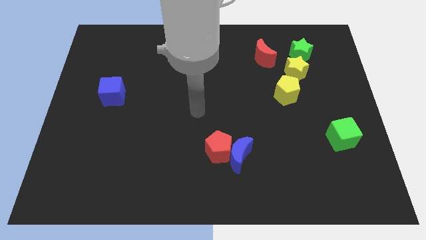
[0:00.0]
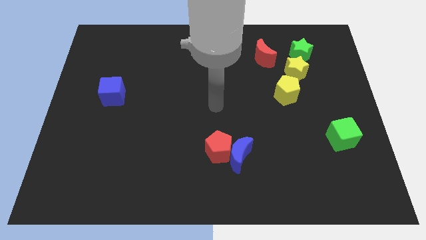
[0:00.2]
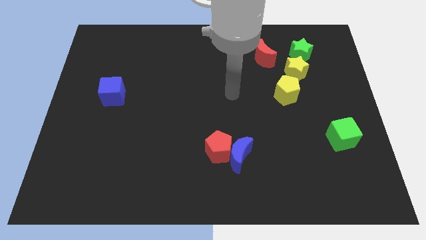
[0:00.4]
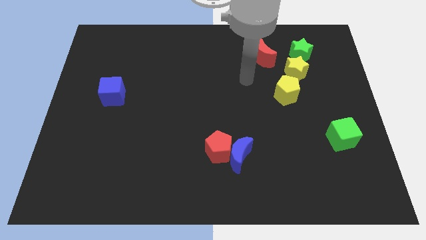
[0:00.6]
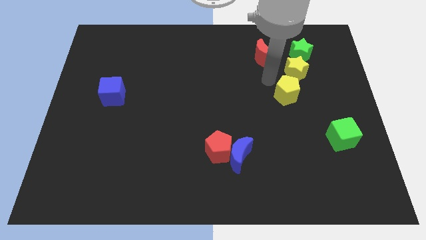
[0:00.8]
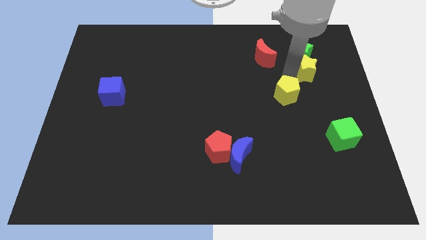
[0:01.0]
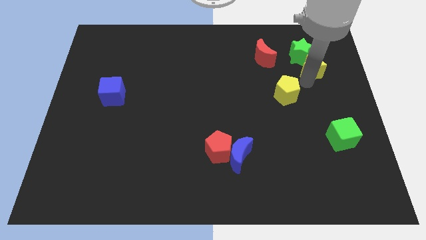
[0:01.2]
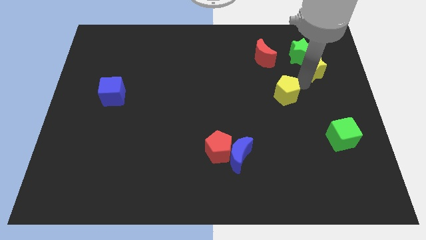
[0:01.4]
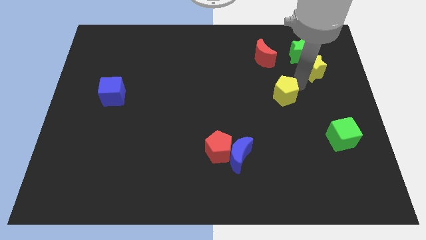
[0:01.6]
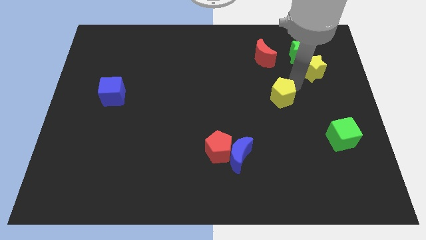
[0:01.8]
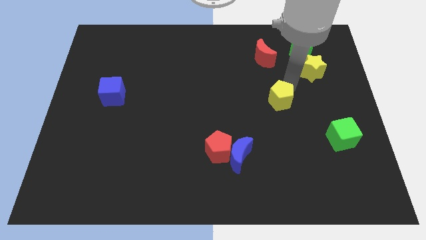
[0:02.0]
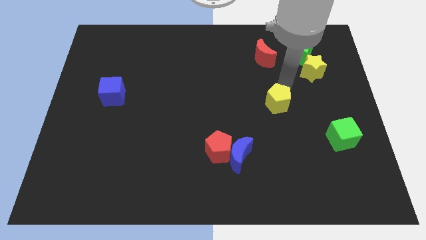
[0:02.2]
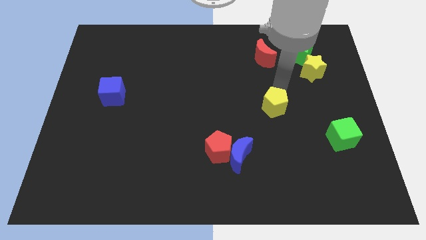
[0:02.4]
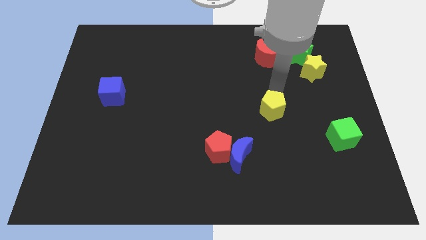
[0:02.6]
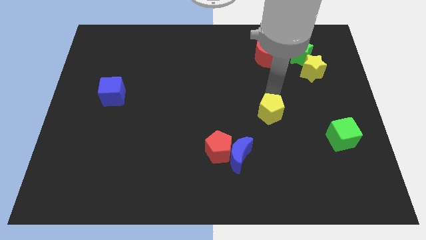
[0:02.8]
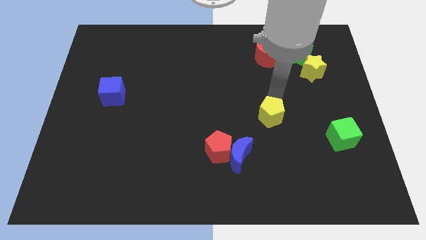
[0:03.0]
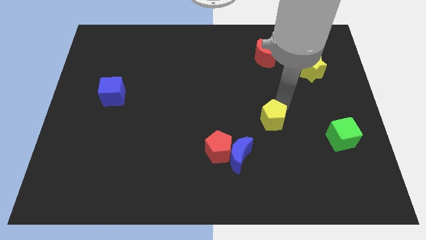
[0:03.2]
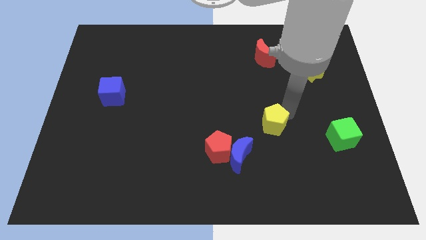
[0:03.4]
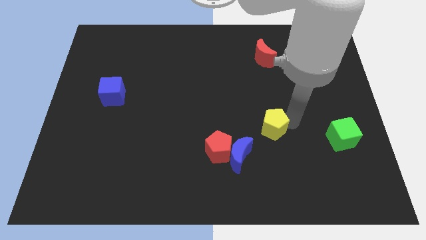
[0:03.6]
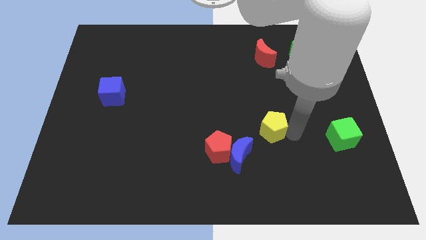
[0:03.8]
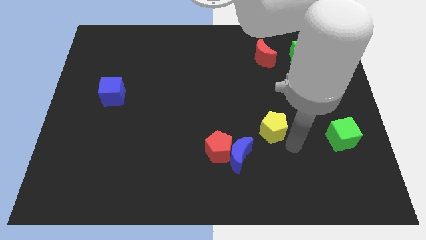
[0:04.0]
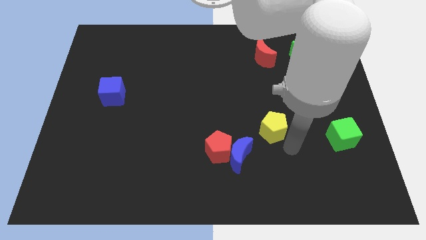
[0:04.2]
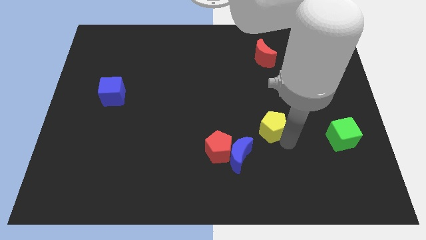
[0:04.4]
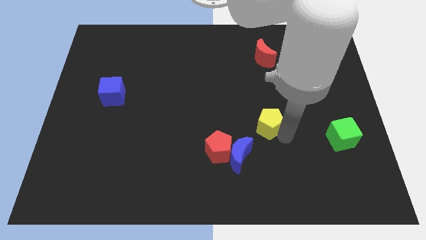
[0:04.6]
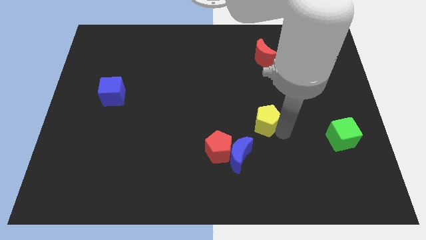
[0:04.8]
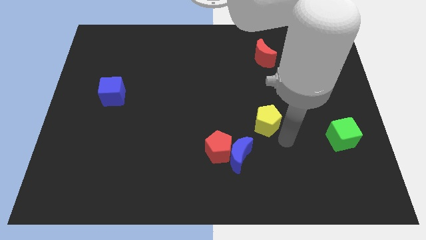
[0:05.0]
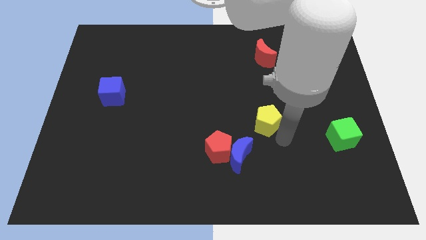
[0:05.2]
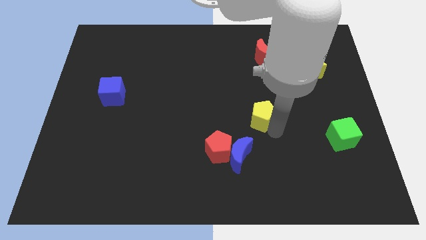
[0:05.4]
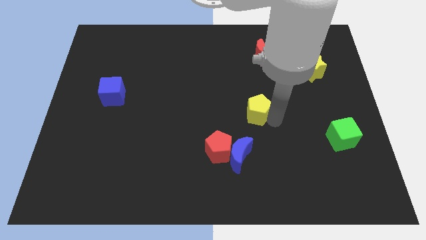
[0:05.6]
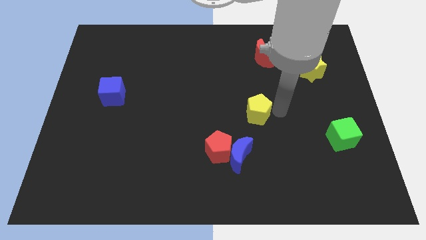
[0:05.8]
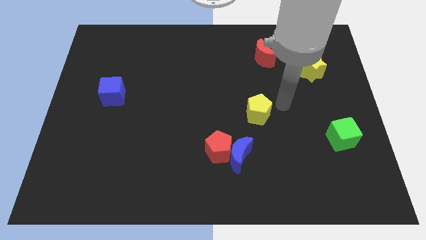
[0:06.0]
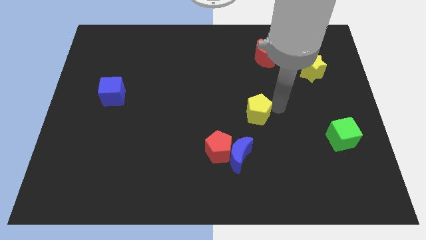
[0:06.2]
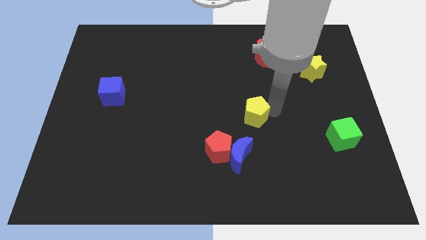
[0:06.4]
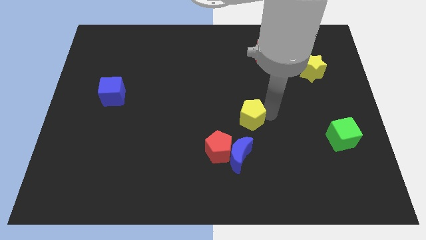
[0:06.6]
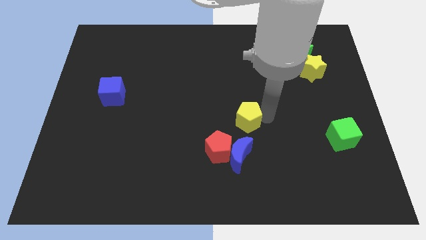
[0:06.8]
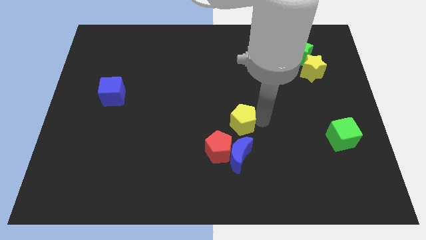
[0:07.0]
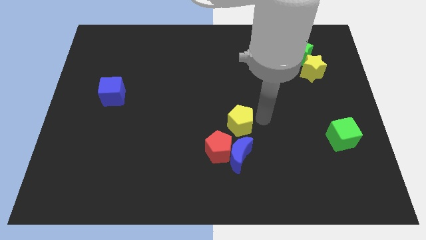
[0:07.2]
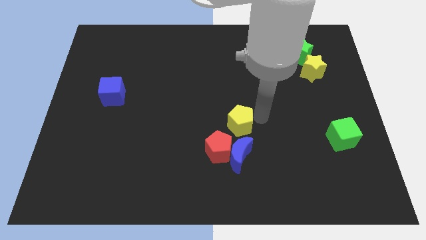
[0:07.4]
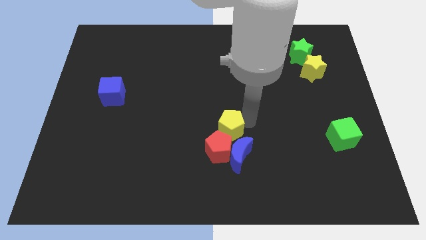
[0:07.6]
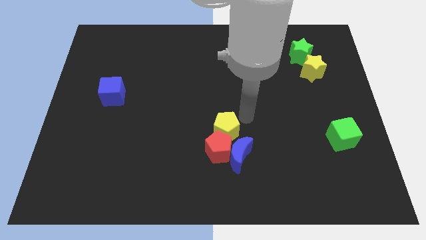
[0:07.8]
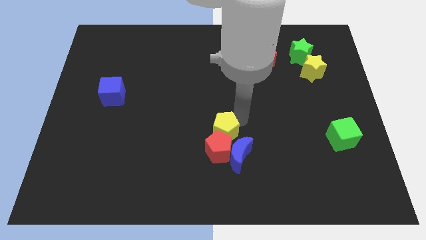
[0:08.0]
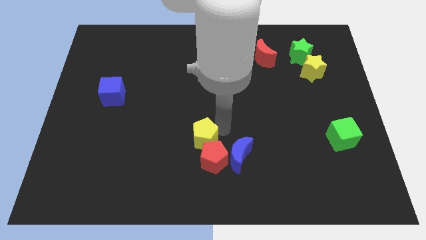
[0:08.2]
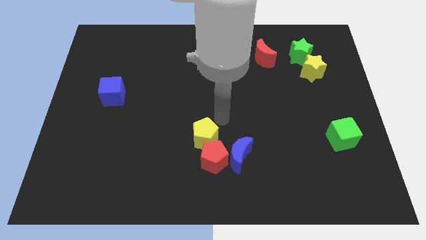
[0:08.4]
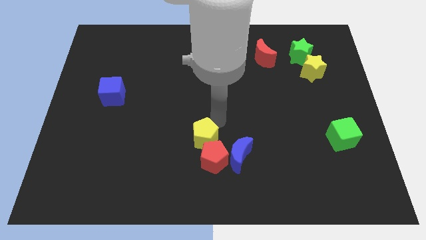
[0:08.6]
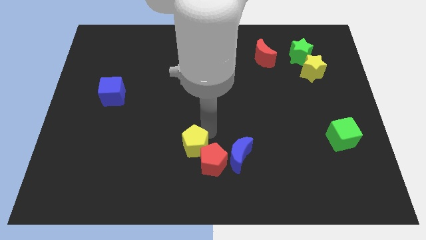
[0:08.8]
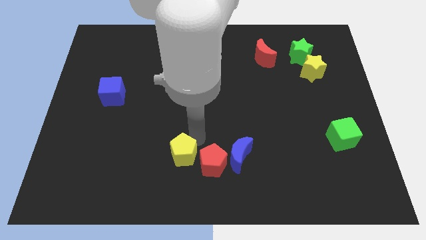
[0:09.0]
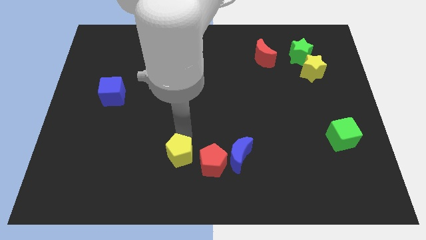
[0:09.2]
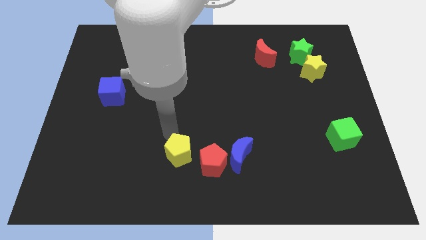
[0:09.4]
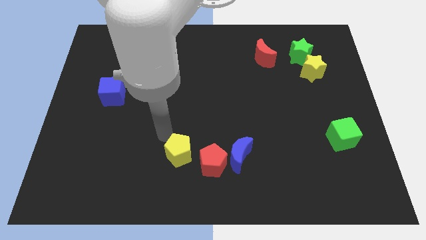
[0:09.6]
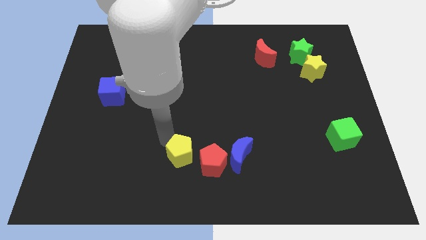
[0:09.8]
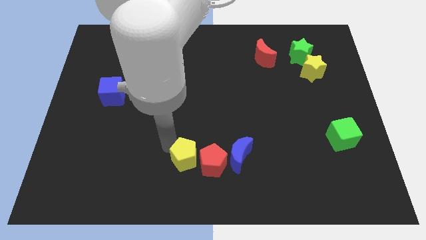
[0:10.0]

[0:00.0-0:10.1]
slide the yellow pentagon to the bottom

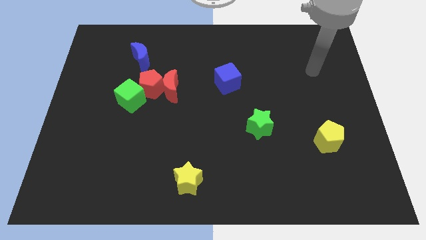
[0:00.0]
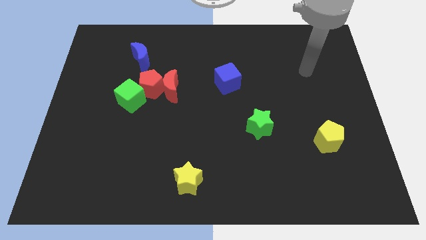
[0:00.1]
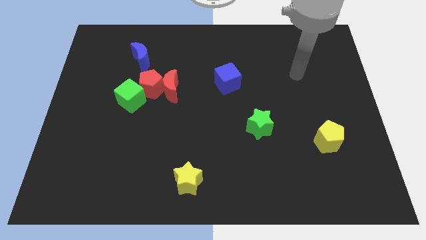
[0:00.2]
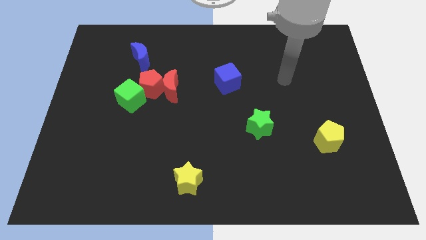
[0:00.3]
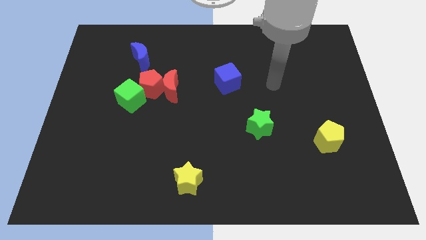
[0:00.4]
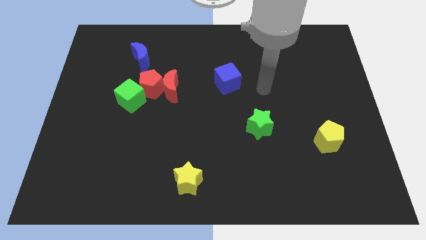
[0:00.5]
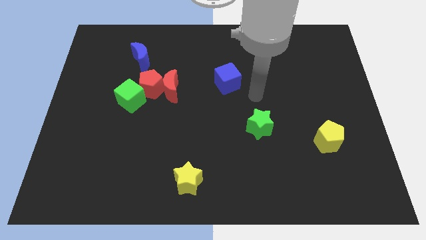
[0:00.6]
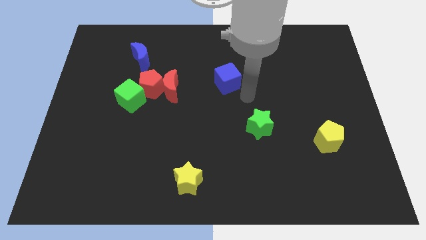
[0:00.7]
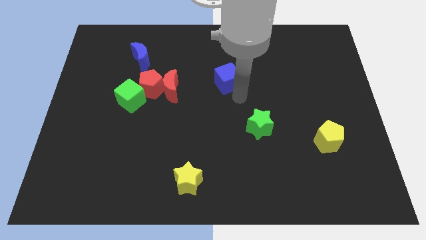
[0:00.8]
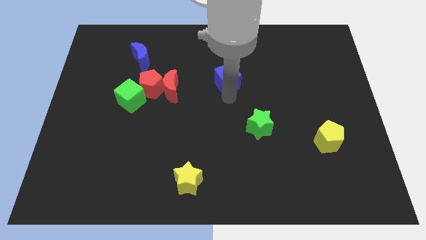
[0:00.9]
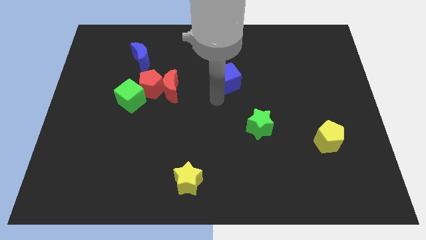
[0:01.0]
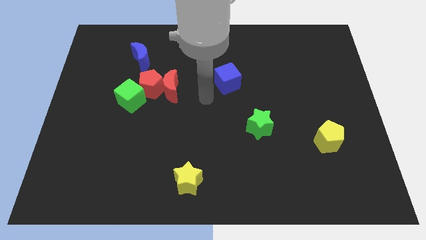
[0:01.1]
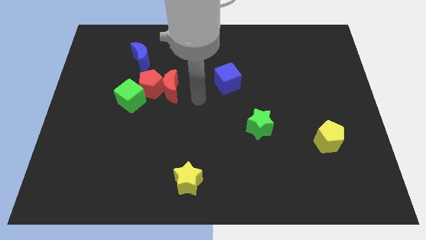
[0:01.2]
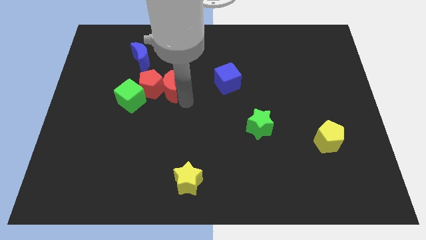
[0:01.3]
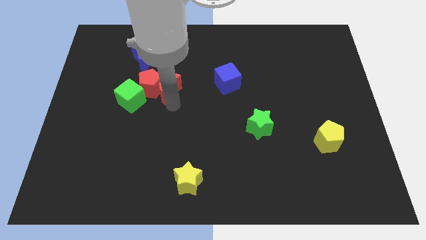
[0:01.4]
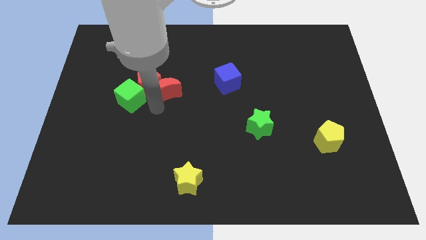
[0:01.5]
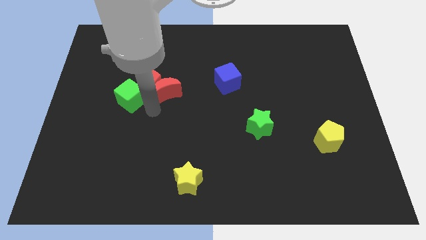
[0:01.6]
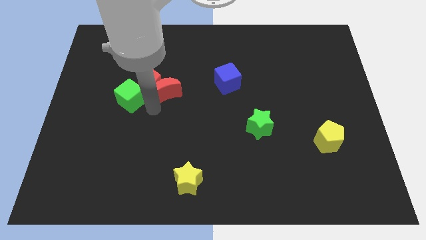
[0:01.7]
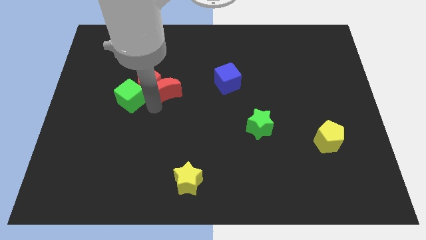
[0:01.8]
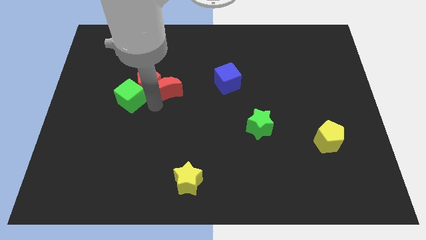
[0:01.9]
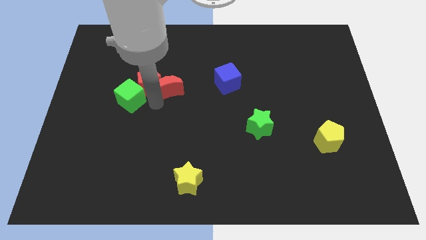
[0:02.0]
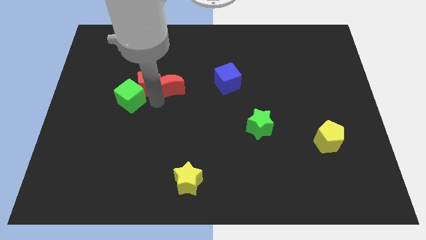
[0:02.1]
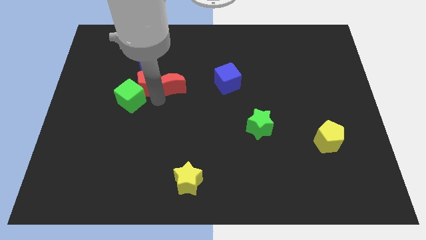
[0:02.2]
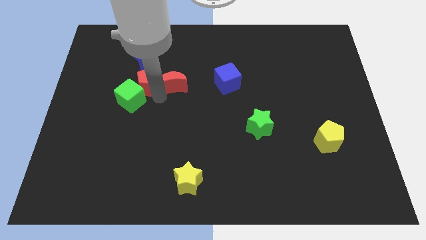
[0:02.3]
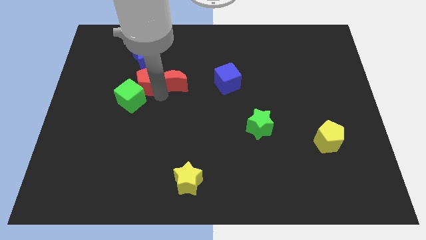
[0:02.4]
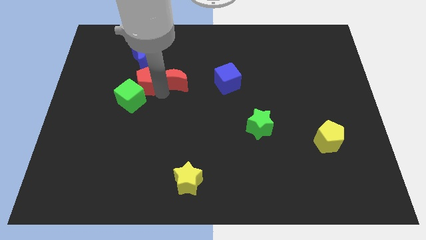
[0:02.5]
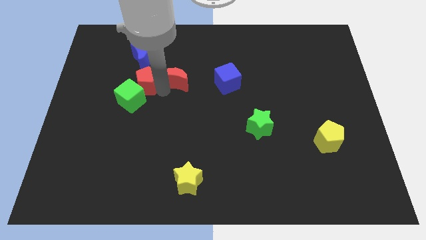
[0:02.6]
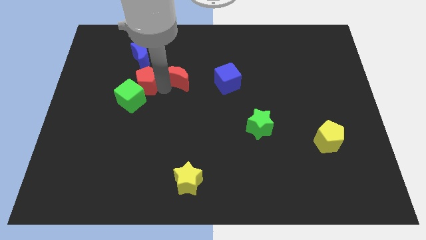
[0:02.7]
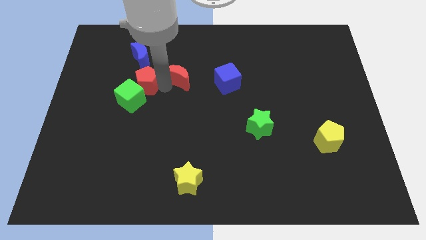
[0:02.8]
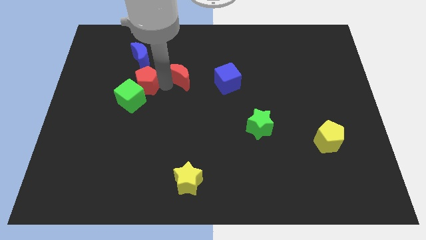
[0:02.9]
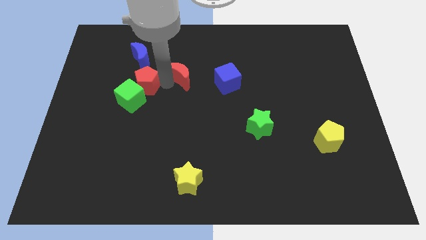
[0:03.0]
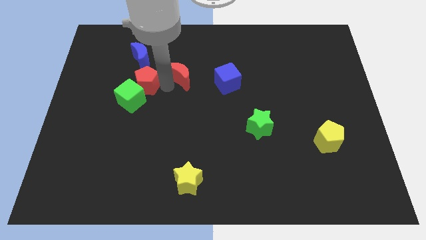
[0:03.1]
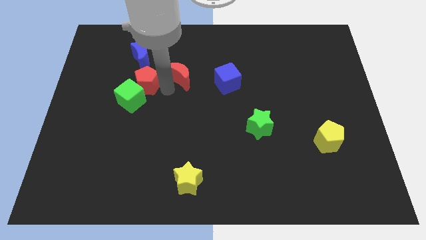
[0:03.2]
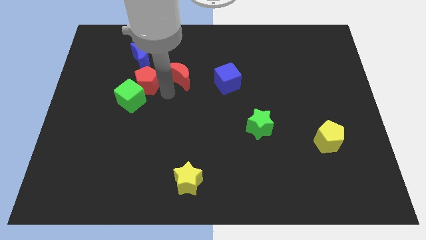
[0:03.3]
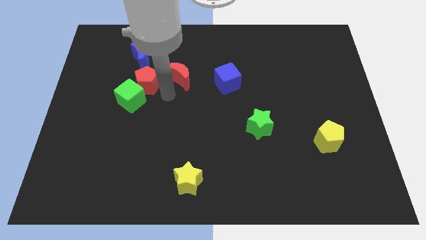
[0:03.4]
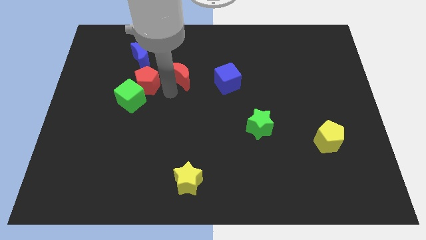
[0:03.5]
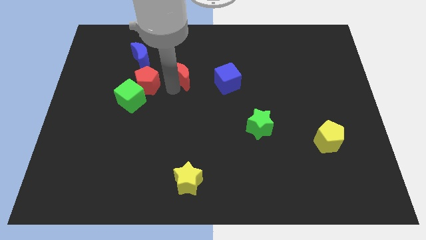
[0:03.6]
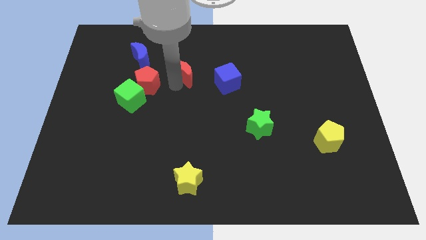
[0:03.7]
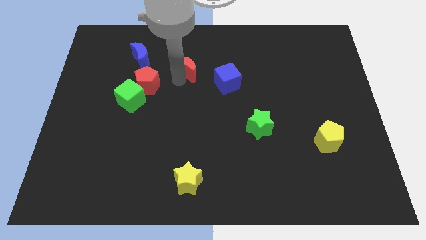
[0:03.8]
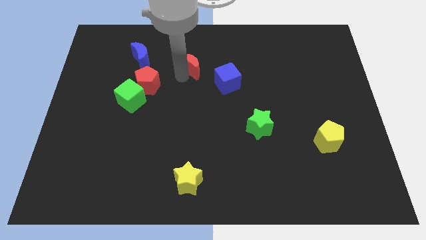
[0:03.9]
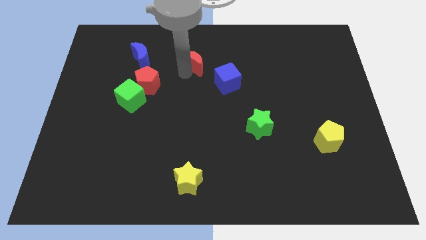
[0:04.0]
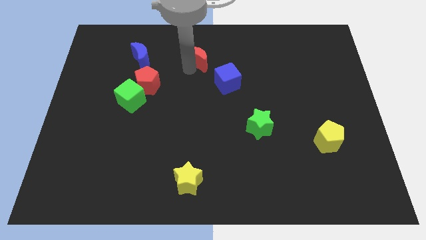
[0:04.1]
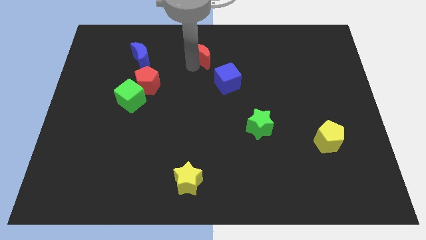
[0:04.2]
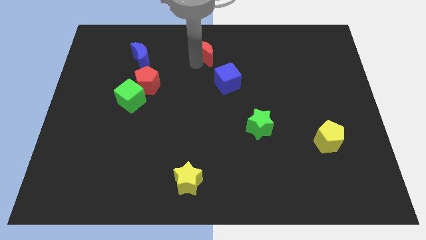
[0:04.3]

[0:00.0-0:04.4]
slide the red moon to the top side
